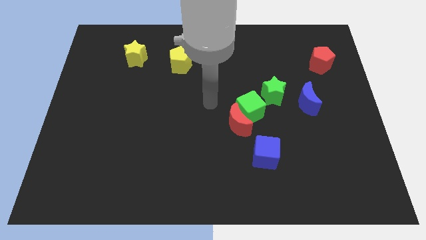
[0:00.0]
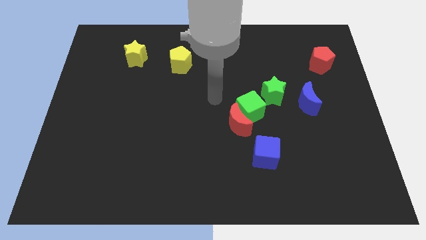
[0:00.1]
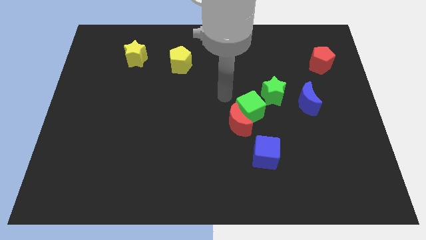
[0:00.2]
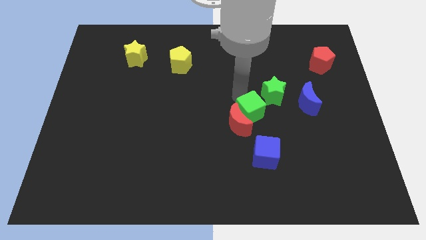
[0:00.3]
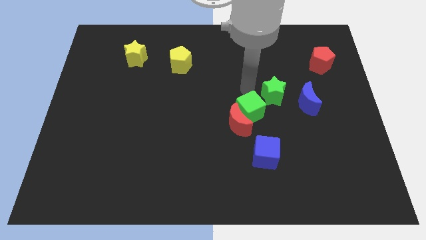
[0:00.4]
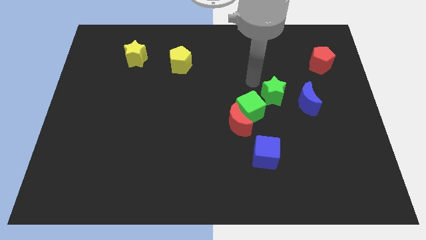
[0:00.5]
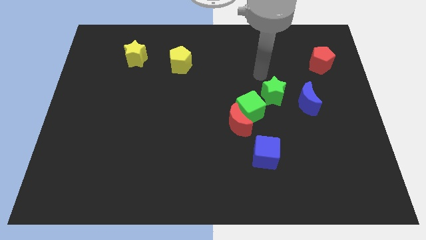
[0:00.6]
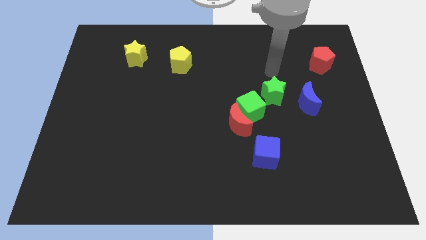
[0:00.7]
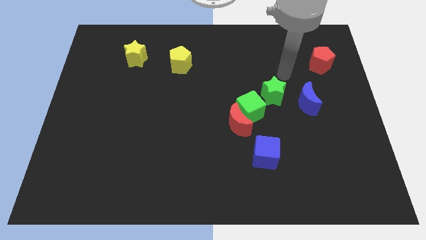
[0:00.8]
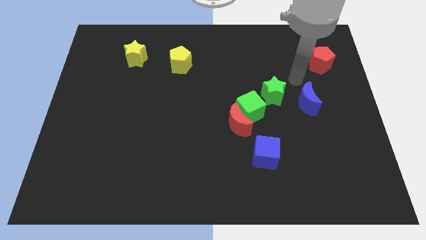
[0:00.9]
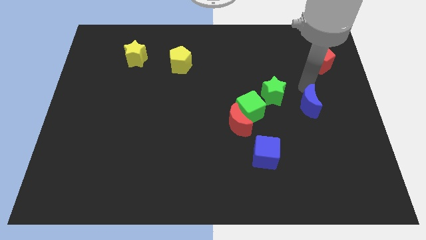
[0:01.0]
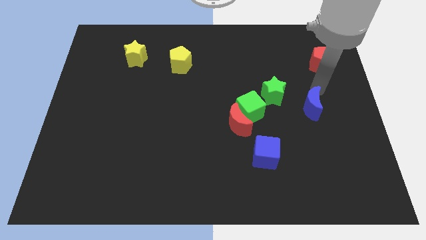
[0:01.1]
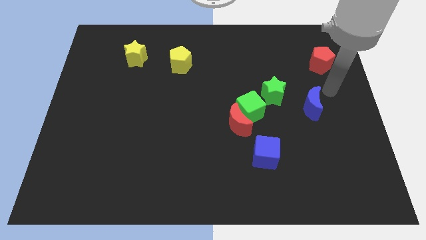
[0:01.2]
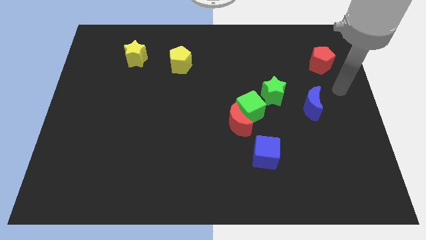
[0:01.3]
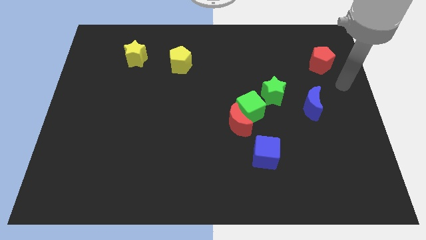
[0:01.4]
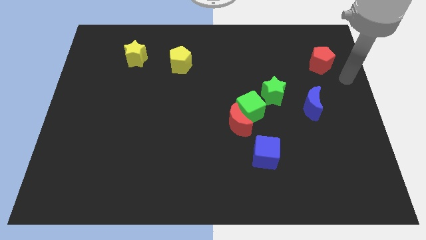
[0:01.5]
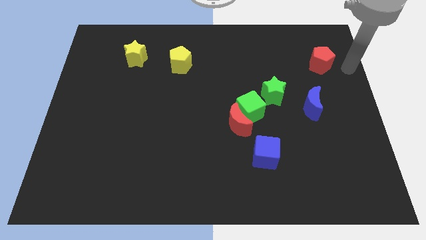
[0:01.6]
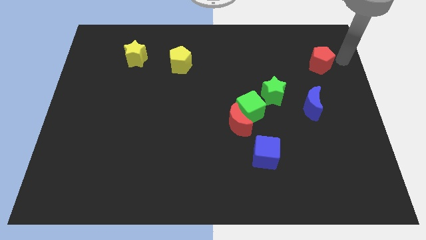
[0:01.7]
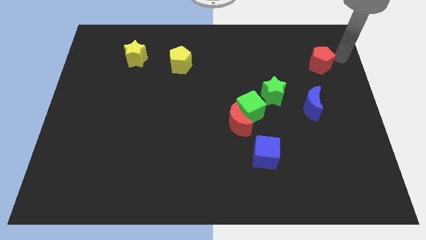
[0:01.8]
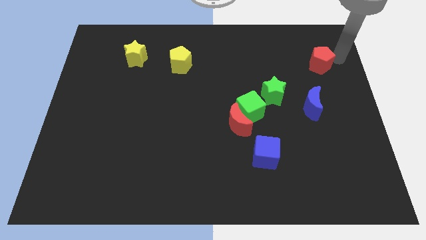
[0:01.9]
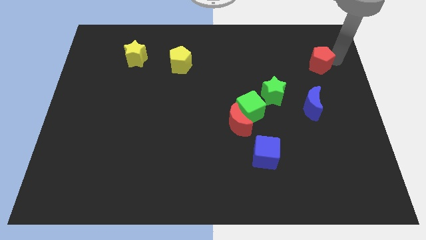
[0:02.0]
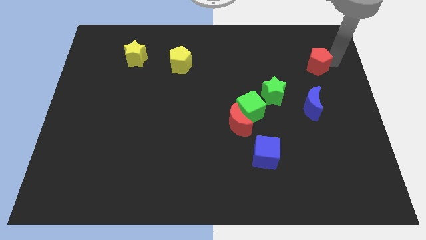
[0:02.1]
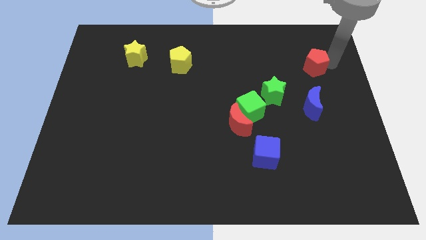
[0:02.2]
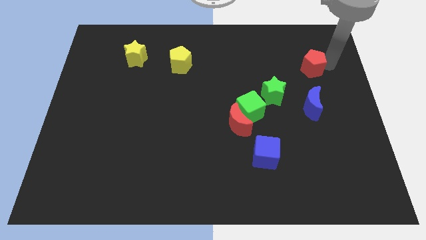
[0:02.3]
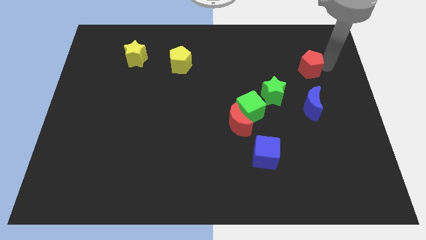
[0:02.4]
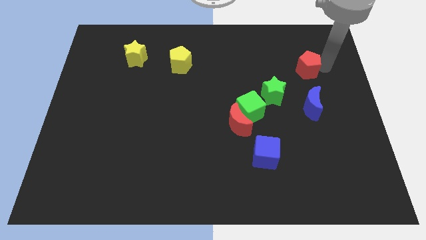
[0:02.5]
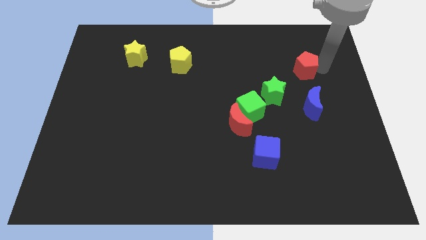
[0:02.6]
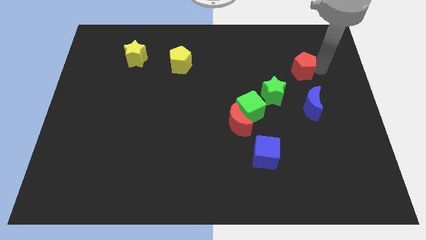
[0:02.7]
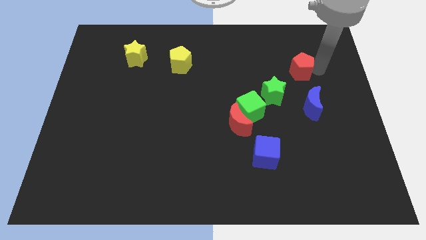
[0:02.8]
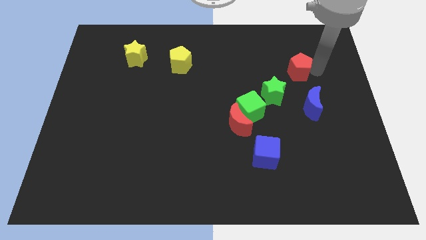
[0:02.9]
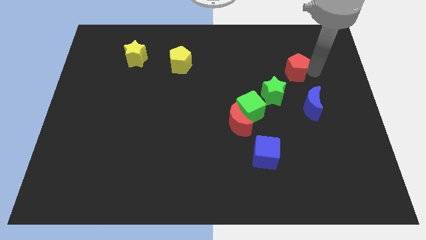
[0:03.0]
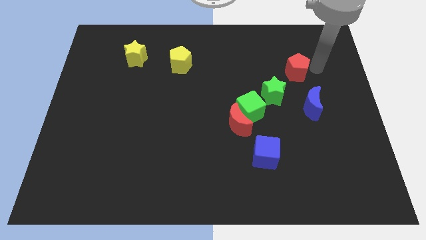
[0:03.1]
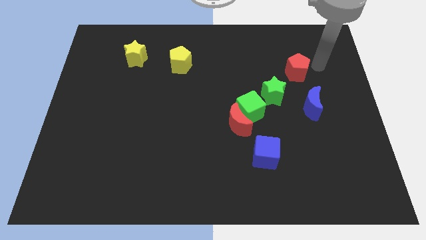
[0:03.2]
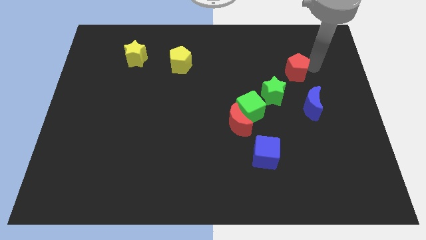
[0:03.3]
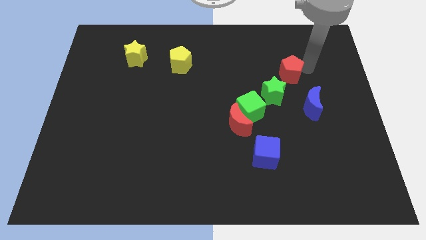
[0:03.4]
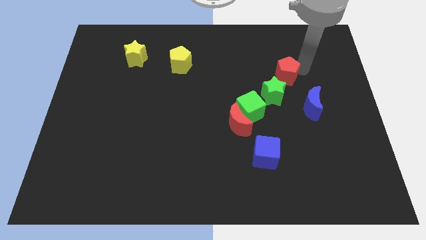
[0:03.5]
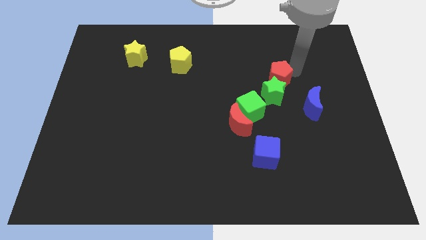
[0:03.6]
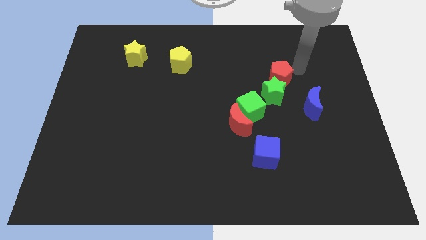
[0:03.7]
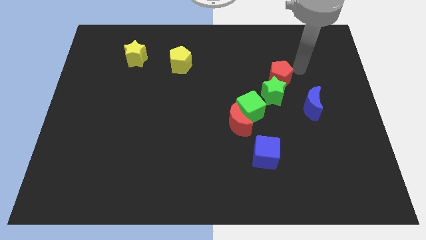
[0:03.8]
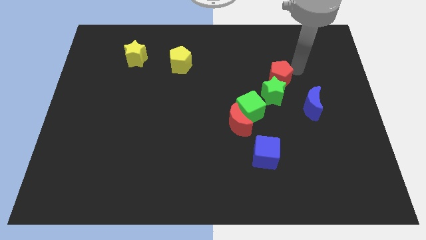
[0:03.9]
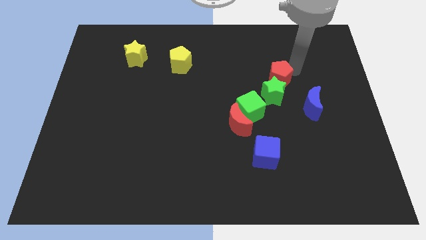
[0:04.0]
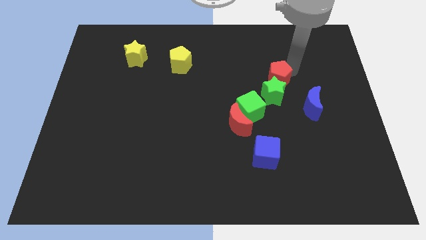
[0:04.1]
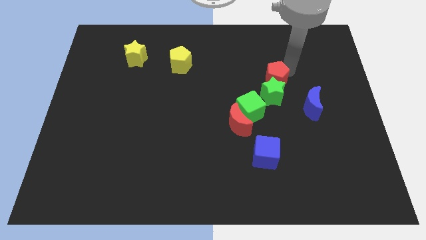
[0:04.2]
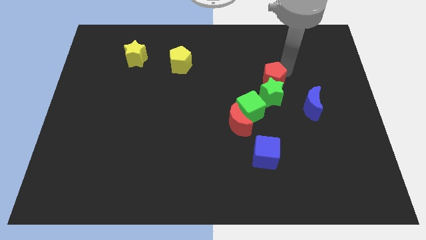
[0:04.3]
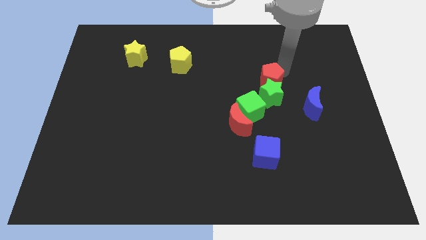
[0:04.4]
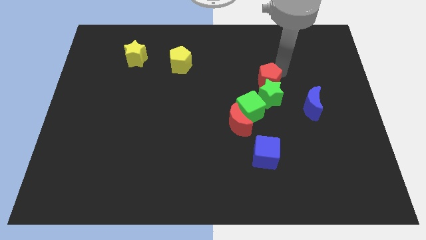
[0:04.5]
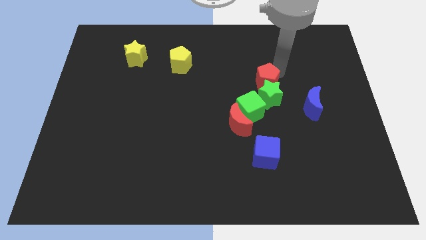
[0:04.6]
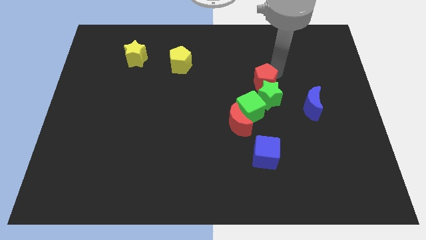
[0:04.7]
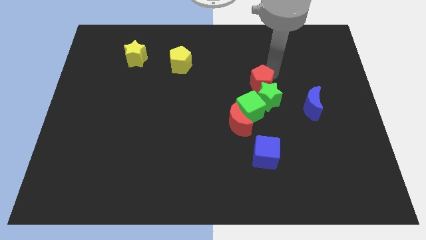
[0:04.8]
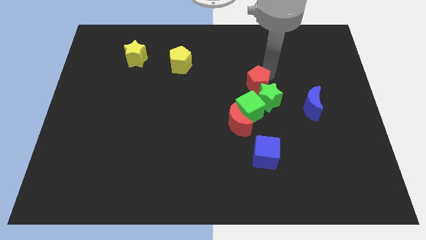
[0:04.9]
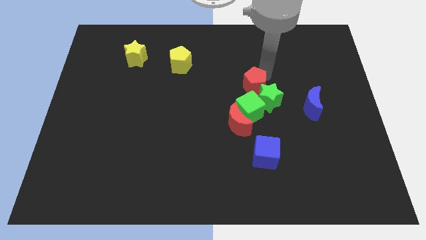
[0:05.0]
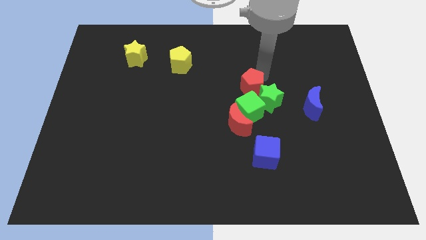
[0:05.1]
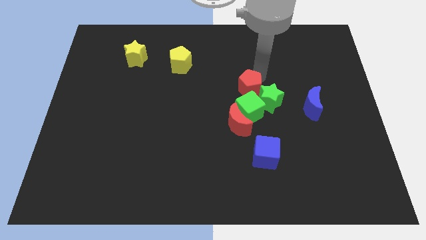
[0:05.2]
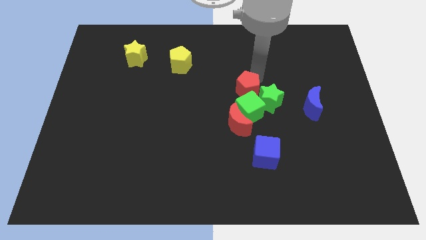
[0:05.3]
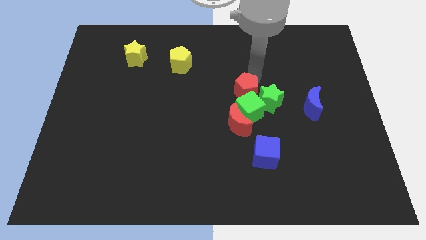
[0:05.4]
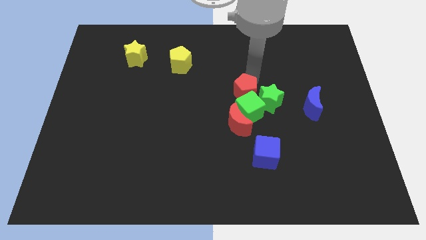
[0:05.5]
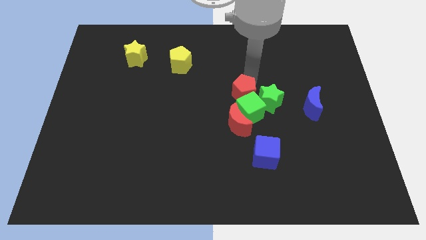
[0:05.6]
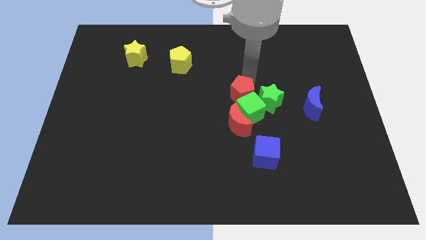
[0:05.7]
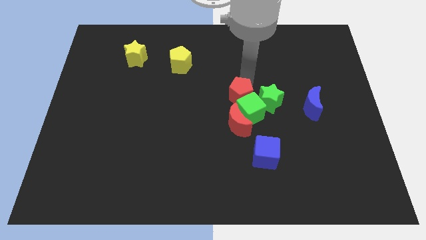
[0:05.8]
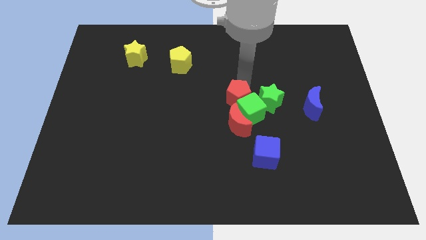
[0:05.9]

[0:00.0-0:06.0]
put the red pentagon just left of the green cube

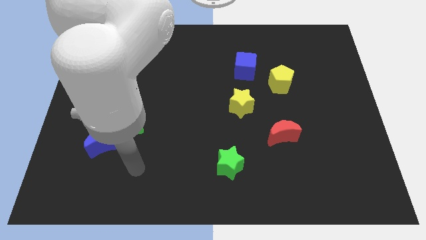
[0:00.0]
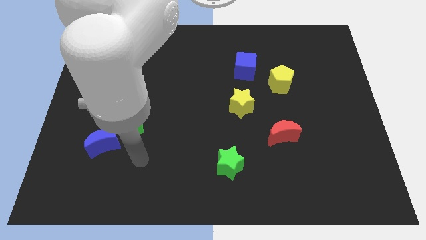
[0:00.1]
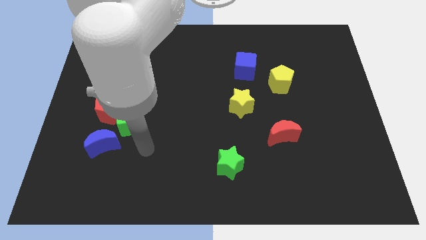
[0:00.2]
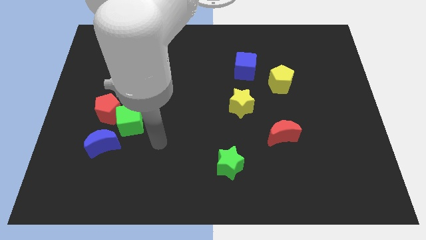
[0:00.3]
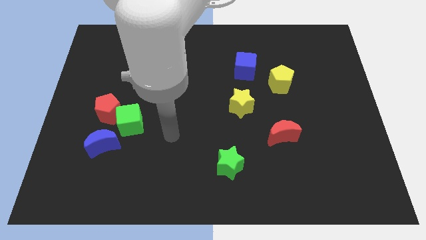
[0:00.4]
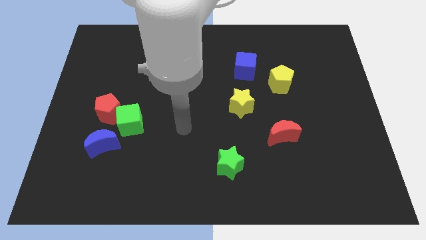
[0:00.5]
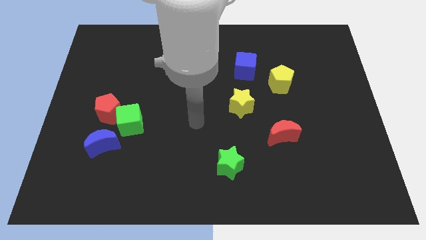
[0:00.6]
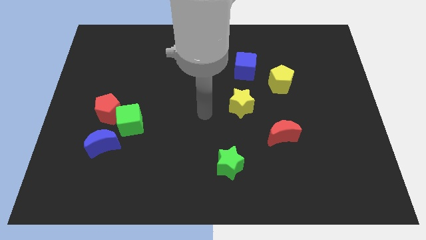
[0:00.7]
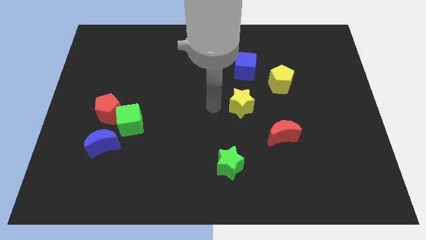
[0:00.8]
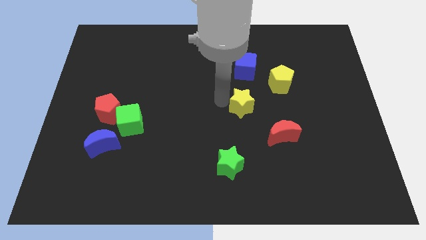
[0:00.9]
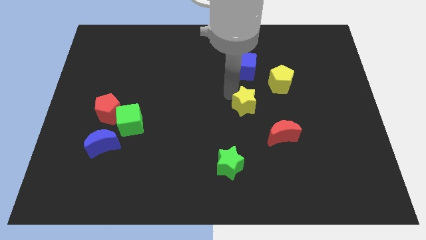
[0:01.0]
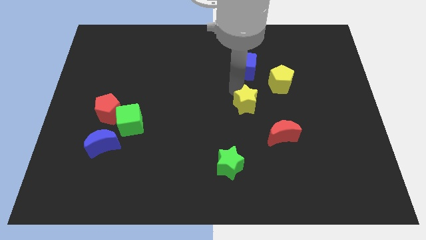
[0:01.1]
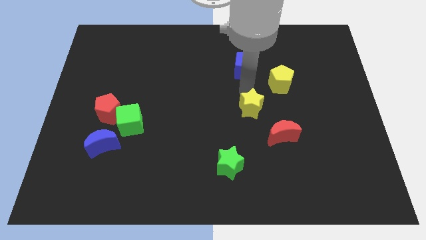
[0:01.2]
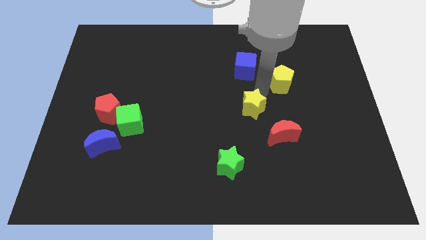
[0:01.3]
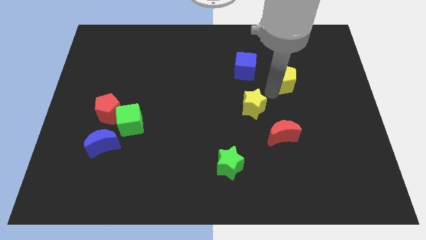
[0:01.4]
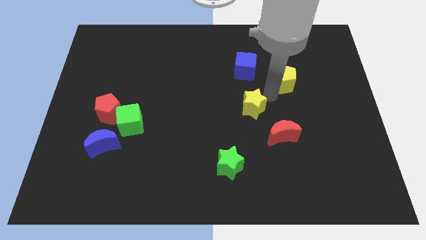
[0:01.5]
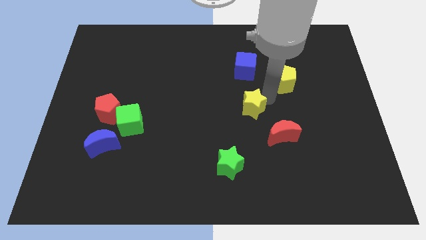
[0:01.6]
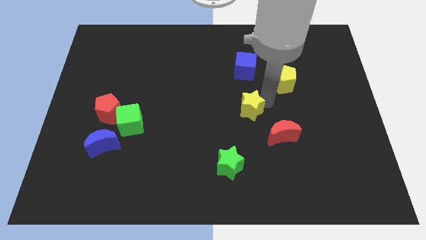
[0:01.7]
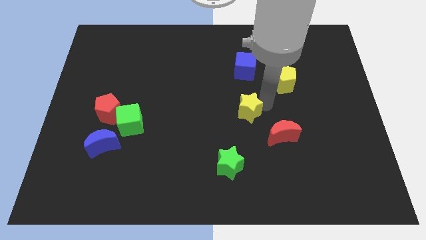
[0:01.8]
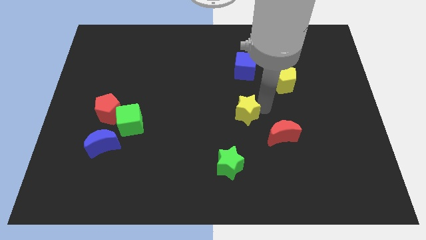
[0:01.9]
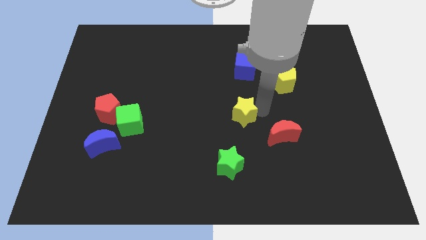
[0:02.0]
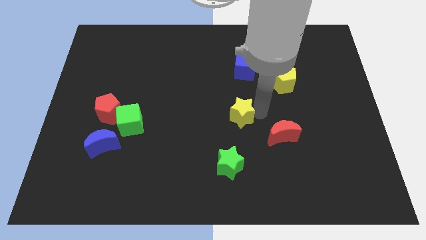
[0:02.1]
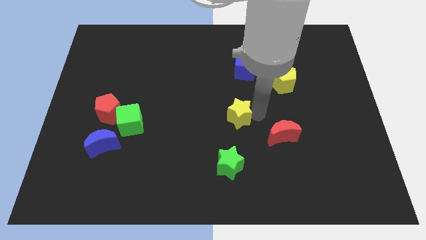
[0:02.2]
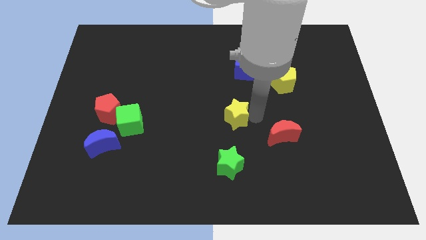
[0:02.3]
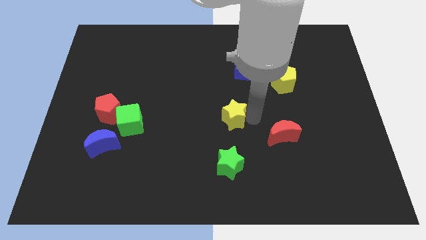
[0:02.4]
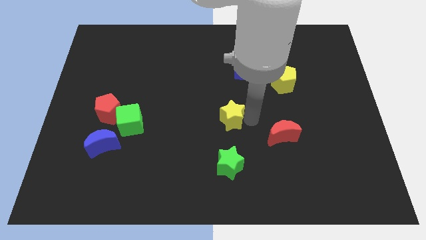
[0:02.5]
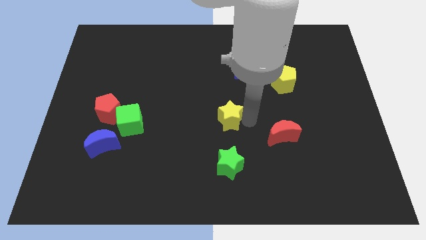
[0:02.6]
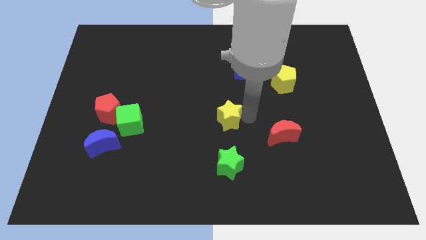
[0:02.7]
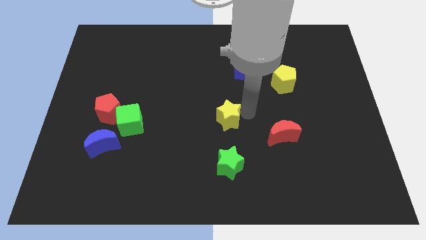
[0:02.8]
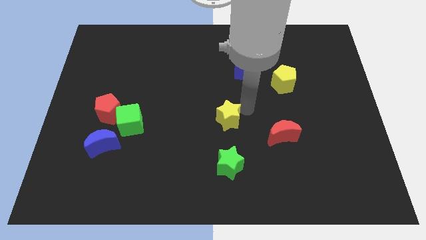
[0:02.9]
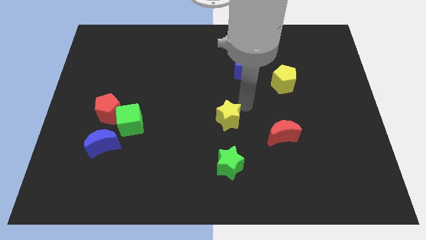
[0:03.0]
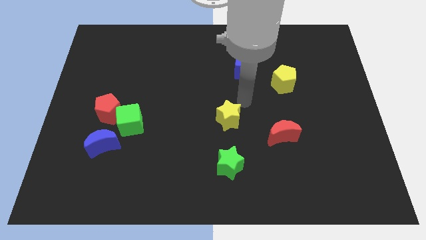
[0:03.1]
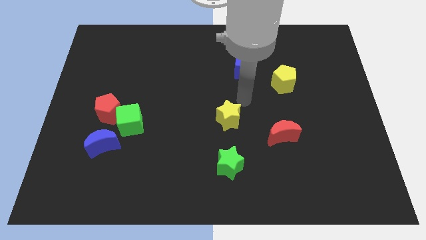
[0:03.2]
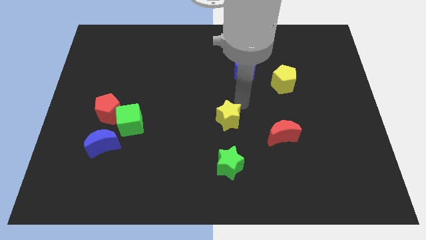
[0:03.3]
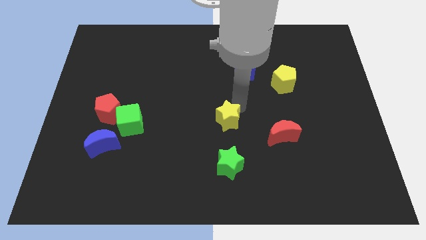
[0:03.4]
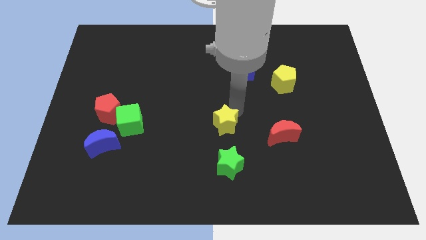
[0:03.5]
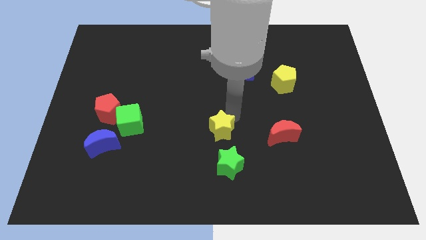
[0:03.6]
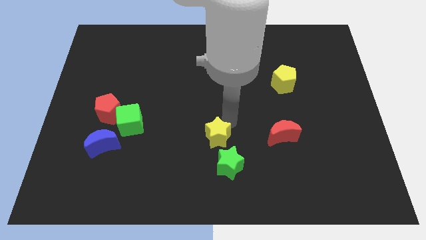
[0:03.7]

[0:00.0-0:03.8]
push the yellow star to the top left side of the green star
